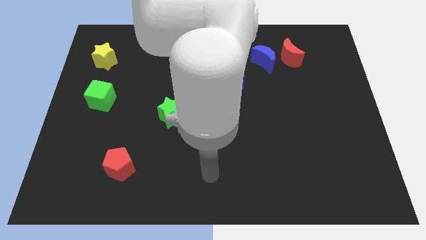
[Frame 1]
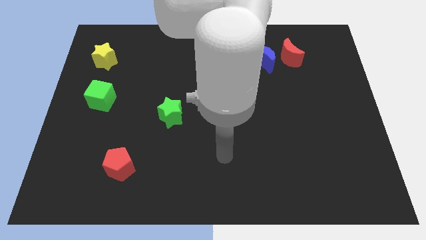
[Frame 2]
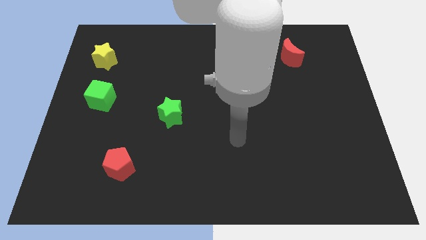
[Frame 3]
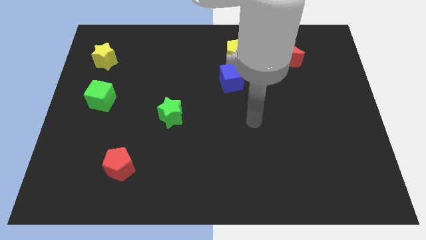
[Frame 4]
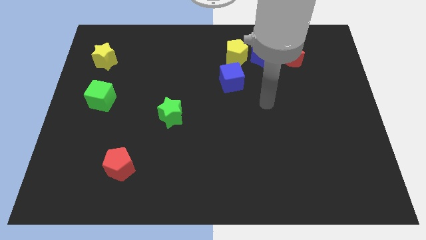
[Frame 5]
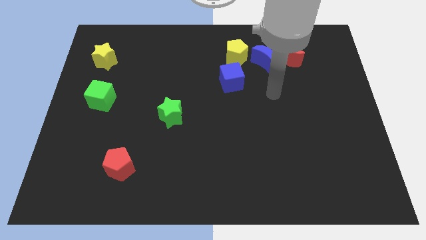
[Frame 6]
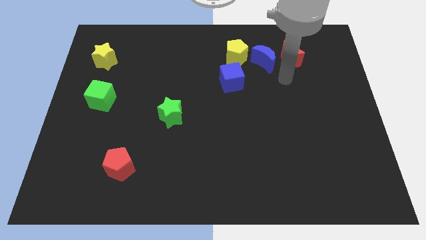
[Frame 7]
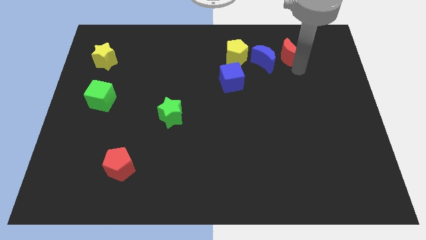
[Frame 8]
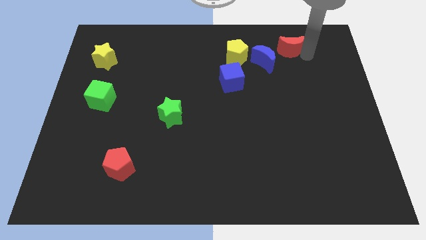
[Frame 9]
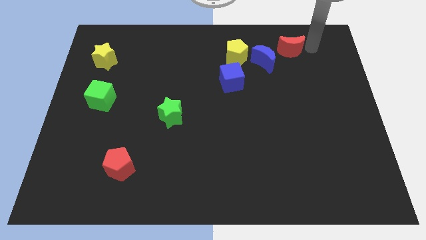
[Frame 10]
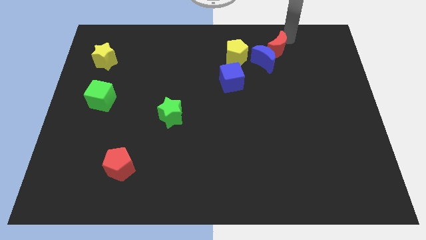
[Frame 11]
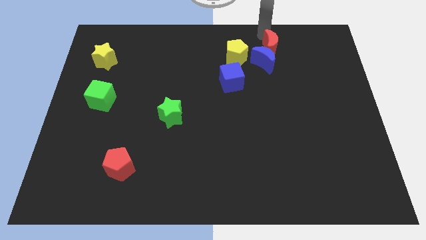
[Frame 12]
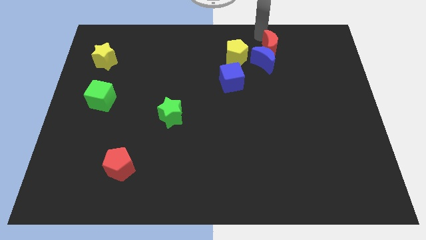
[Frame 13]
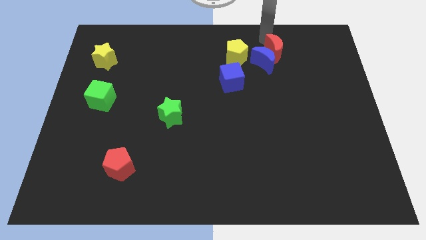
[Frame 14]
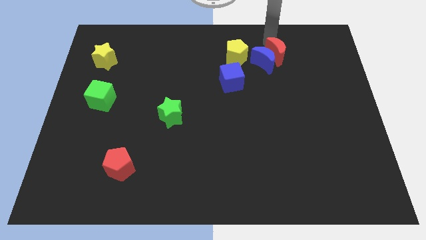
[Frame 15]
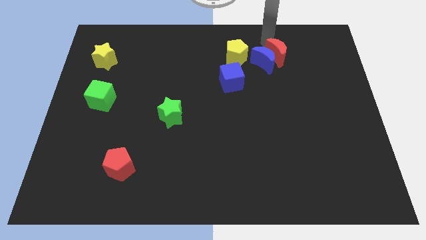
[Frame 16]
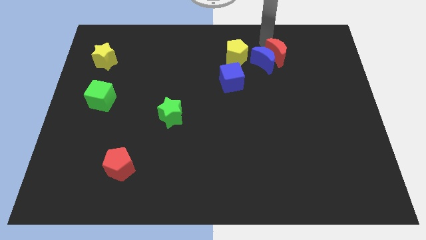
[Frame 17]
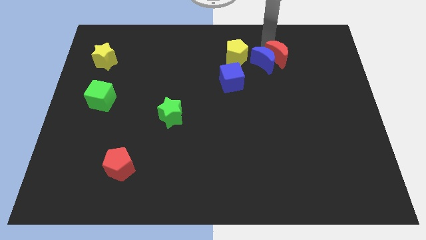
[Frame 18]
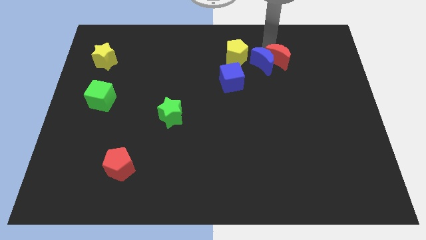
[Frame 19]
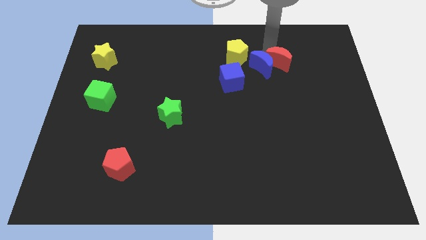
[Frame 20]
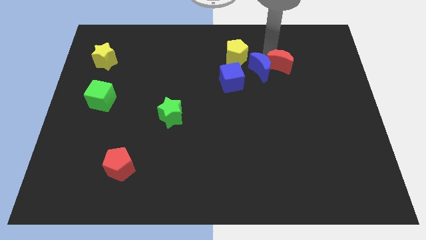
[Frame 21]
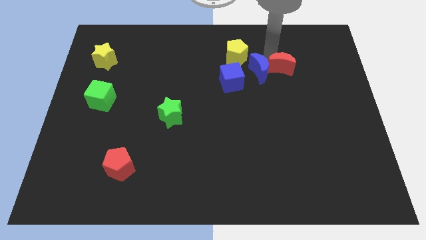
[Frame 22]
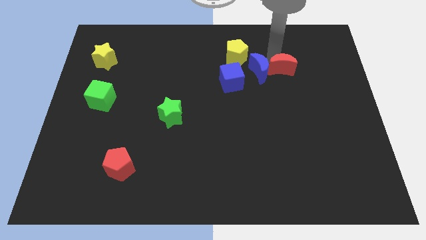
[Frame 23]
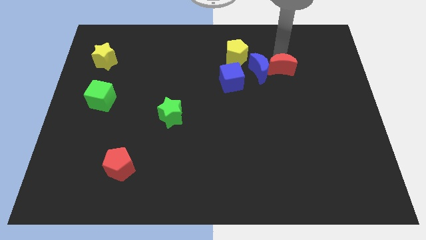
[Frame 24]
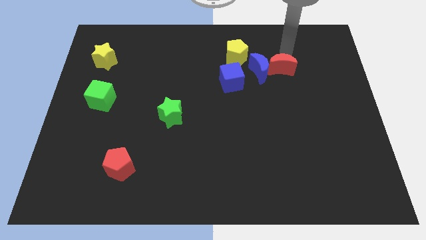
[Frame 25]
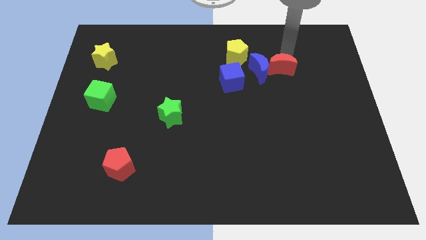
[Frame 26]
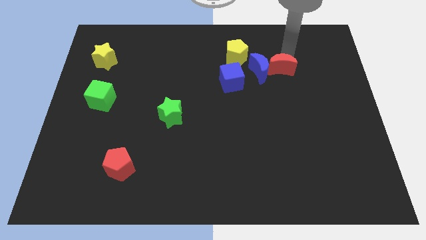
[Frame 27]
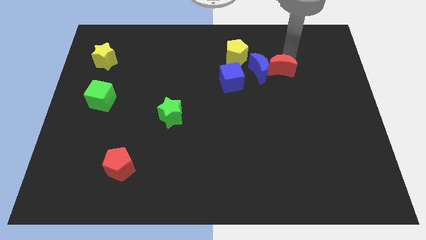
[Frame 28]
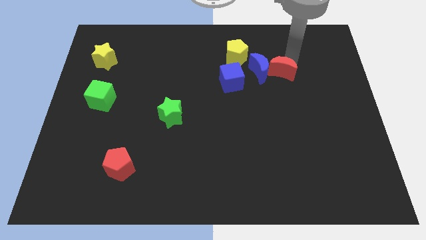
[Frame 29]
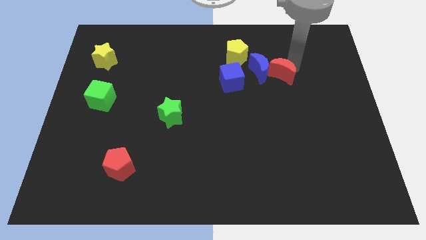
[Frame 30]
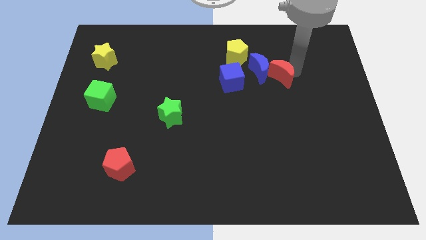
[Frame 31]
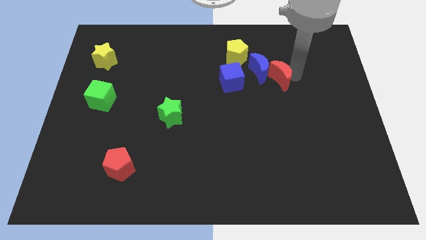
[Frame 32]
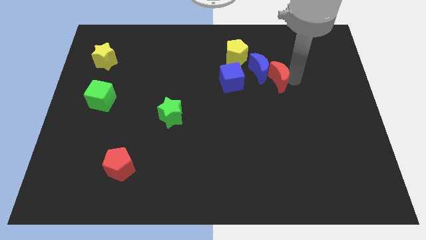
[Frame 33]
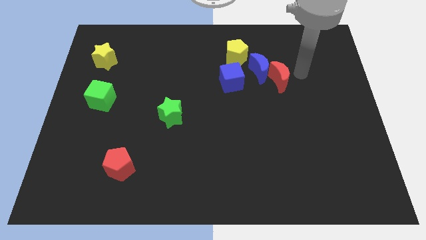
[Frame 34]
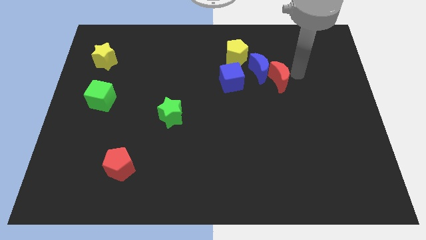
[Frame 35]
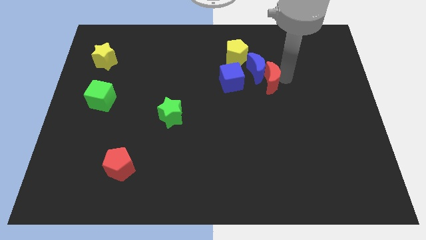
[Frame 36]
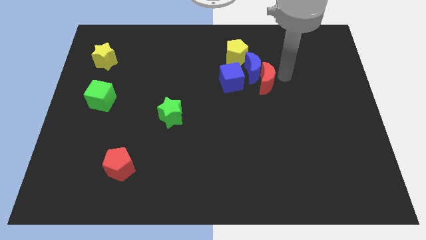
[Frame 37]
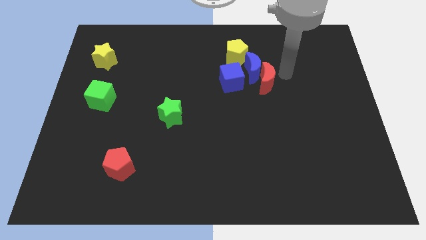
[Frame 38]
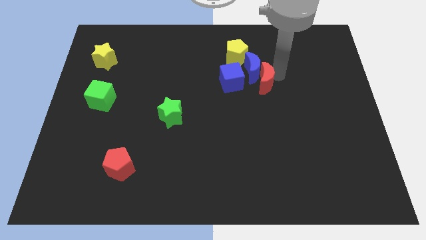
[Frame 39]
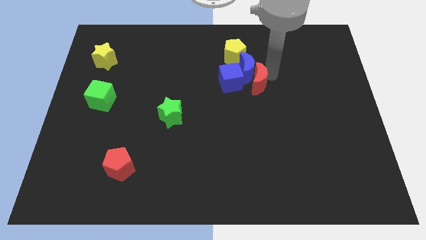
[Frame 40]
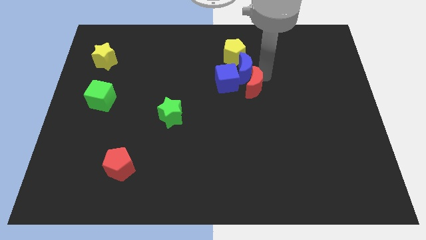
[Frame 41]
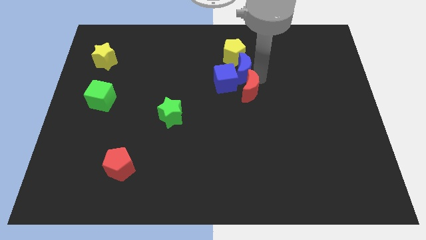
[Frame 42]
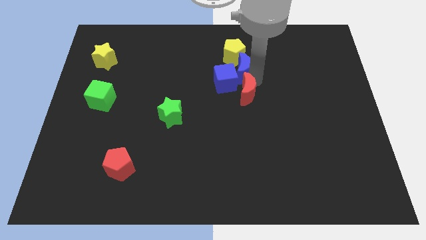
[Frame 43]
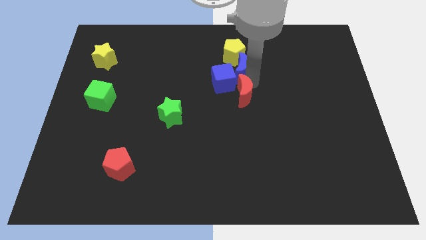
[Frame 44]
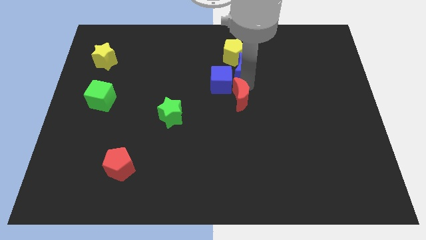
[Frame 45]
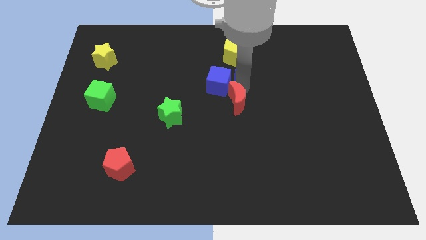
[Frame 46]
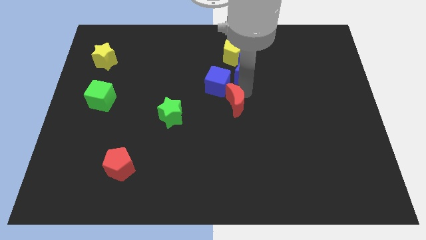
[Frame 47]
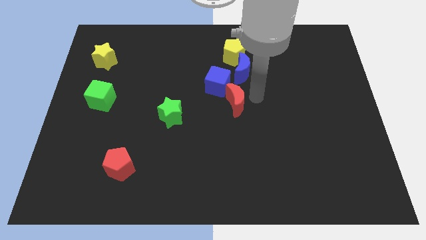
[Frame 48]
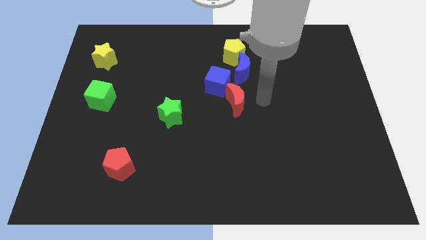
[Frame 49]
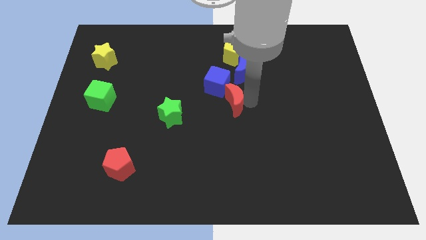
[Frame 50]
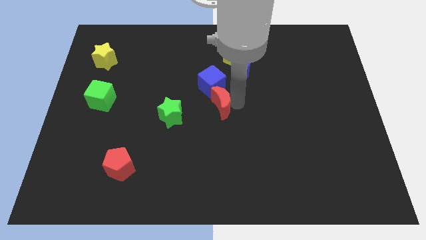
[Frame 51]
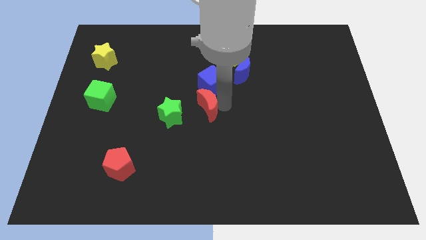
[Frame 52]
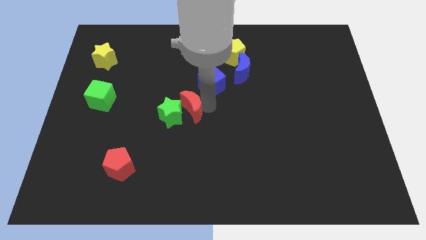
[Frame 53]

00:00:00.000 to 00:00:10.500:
put the red moon to the green star

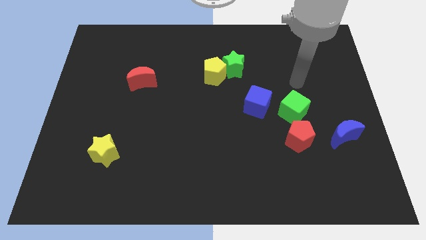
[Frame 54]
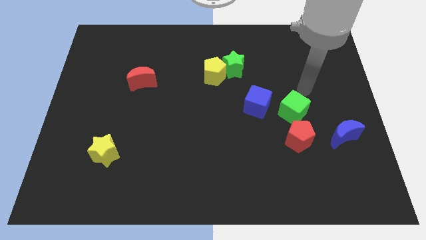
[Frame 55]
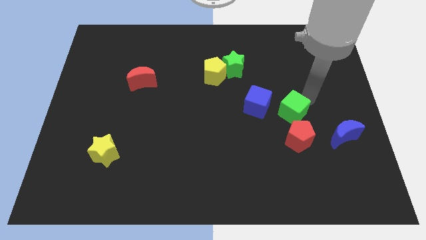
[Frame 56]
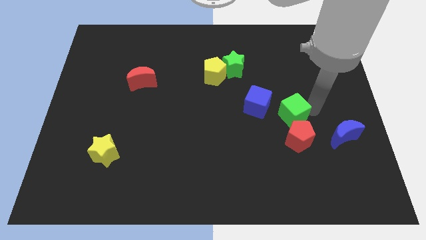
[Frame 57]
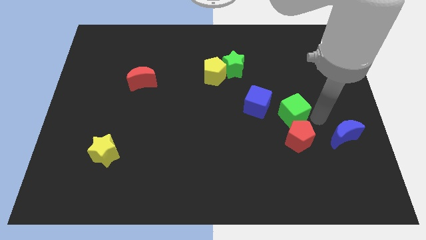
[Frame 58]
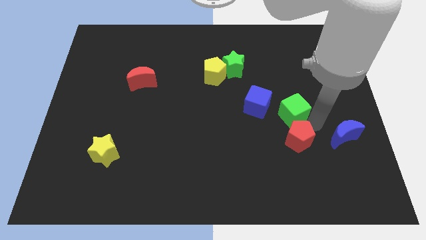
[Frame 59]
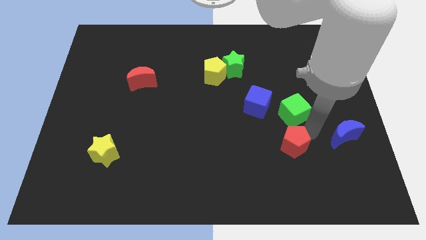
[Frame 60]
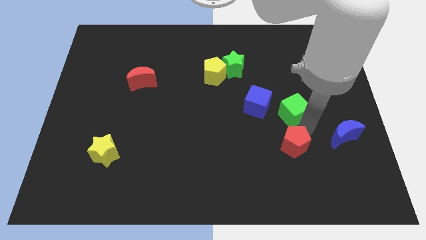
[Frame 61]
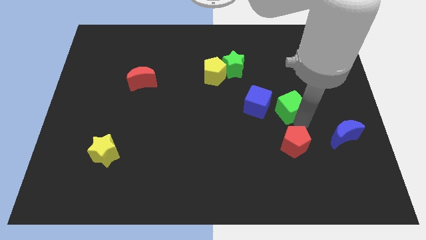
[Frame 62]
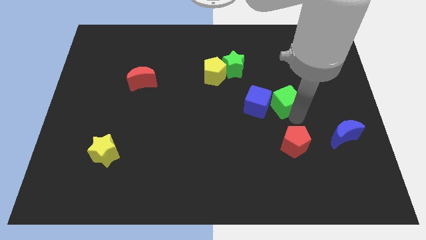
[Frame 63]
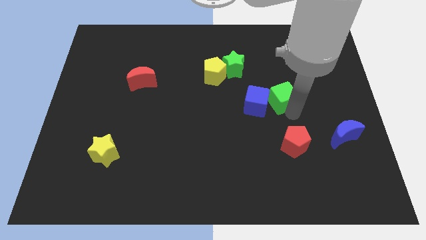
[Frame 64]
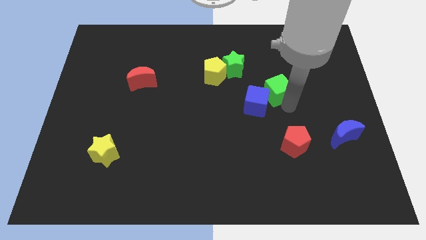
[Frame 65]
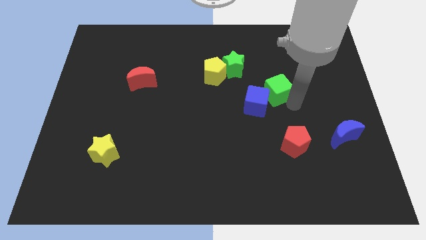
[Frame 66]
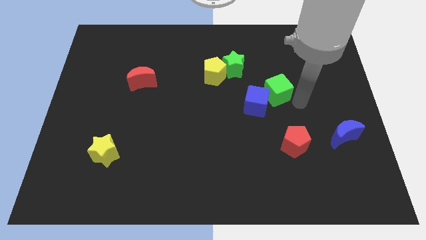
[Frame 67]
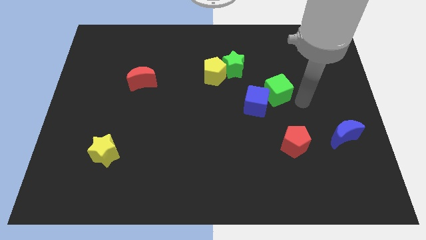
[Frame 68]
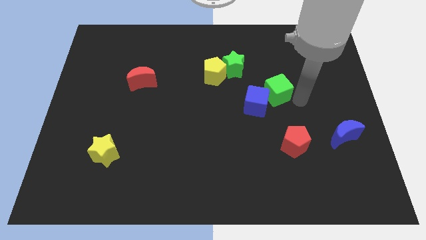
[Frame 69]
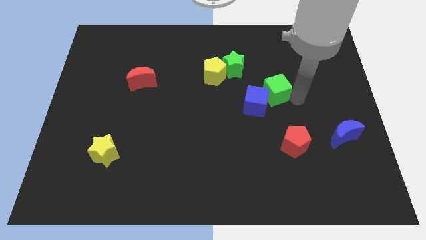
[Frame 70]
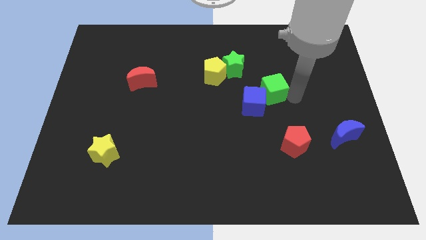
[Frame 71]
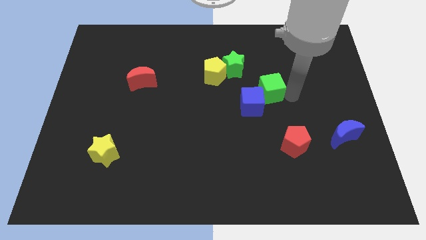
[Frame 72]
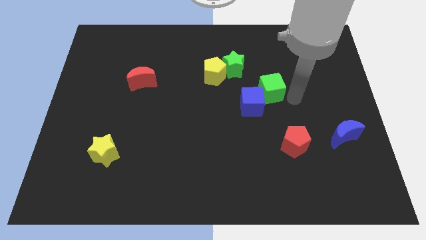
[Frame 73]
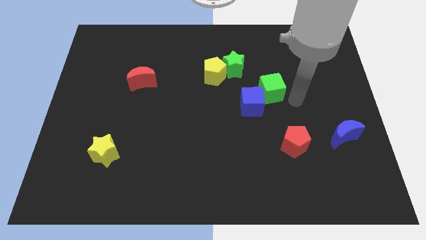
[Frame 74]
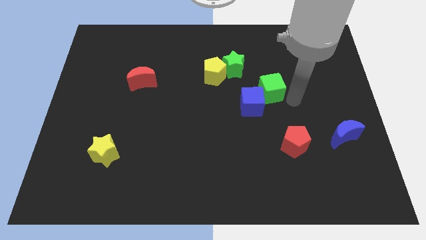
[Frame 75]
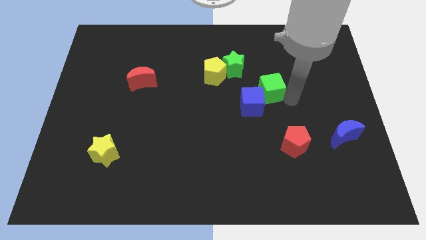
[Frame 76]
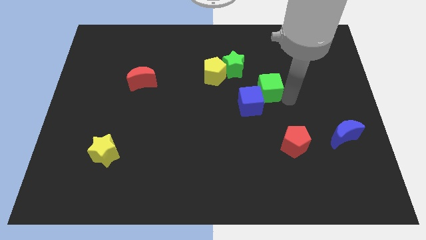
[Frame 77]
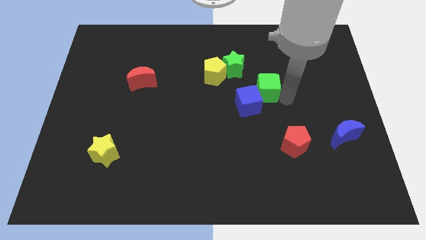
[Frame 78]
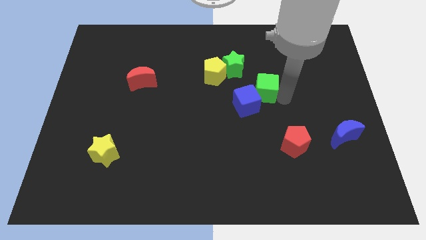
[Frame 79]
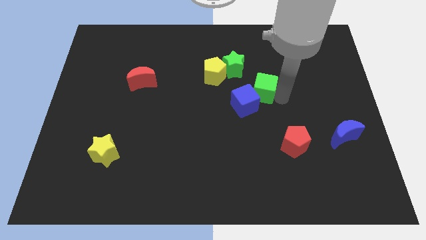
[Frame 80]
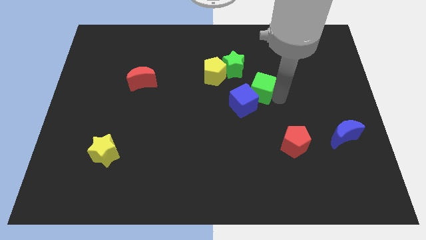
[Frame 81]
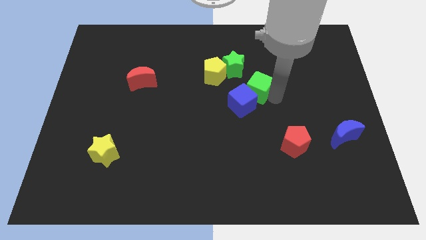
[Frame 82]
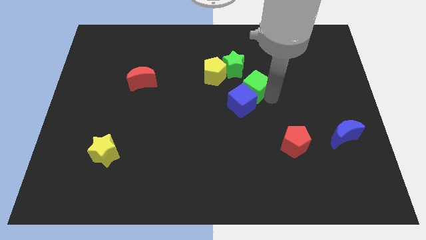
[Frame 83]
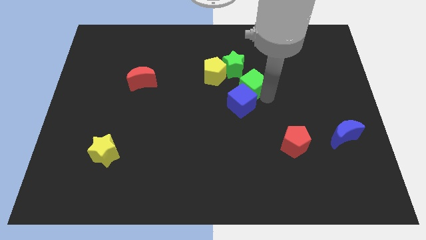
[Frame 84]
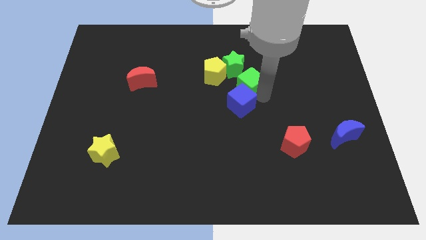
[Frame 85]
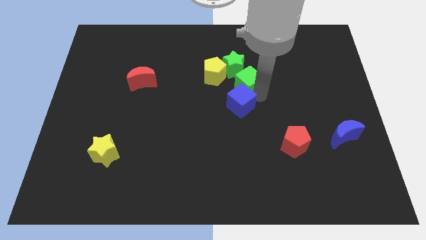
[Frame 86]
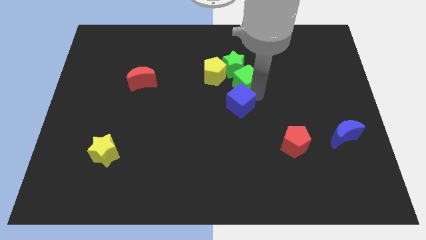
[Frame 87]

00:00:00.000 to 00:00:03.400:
slide the green cube to the green star
